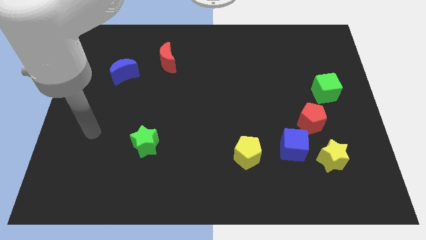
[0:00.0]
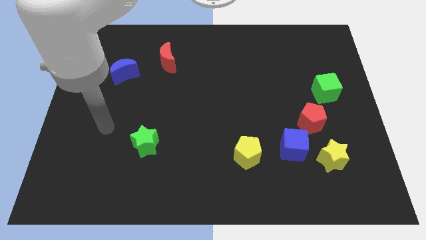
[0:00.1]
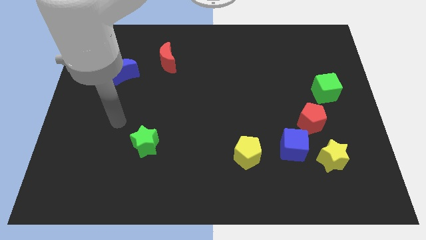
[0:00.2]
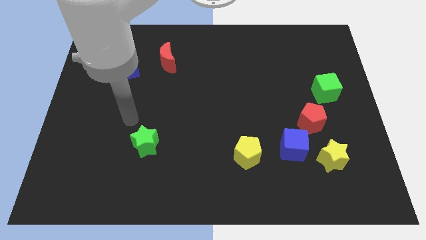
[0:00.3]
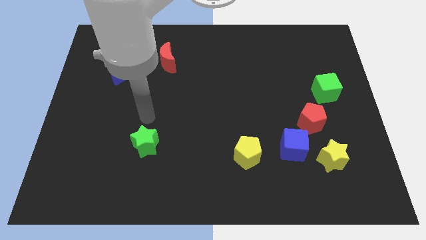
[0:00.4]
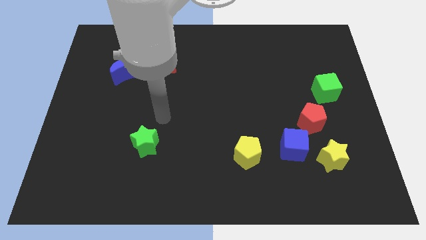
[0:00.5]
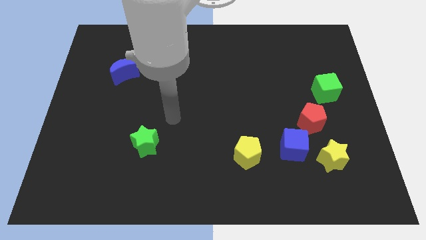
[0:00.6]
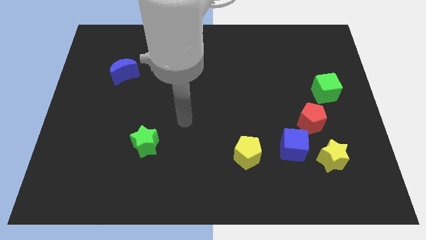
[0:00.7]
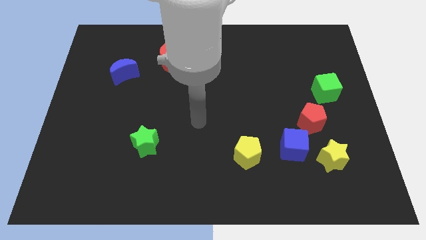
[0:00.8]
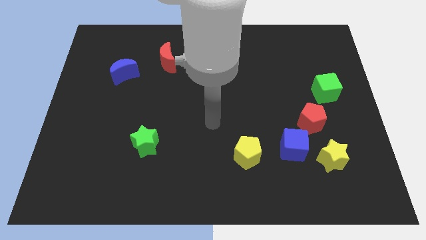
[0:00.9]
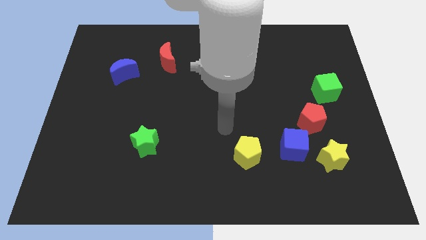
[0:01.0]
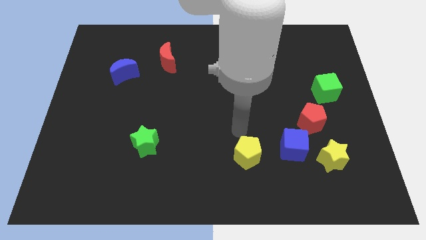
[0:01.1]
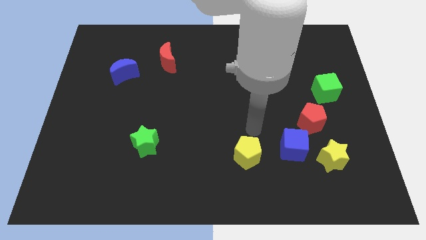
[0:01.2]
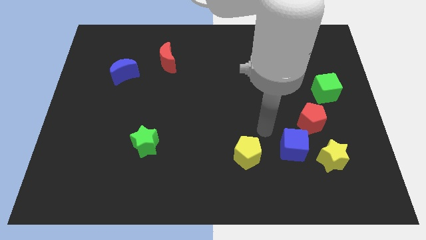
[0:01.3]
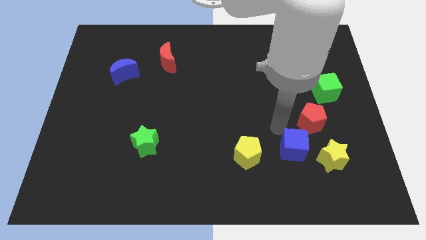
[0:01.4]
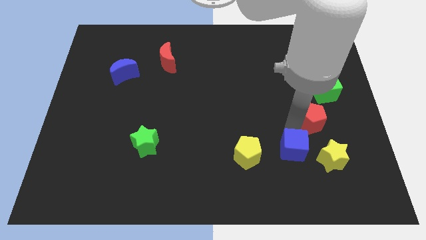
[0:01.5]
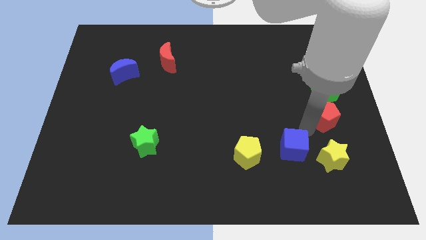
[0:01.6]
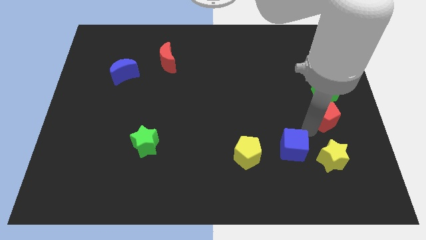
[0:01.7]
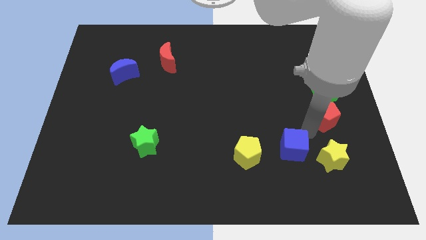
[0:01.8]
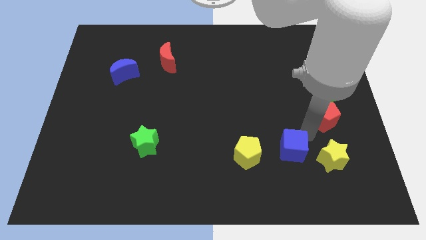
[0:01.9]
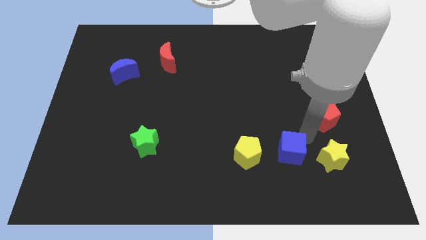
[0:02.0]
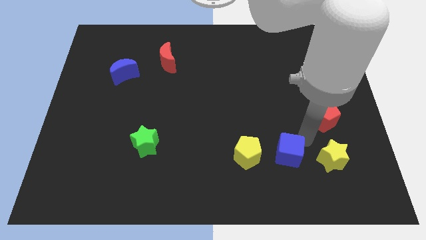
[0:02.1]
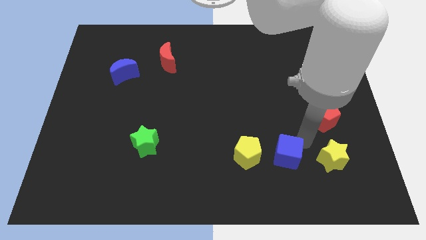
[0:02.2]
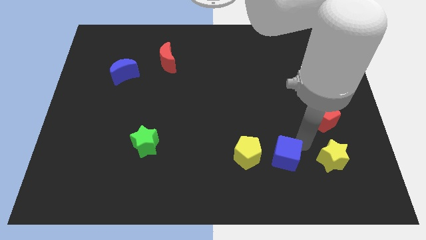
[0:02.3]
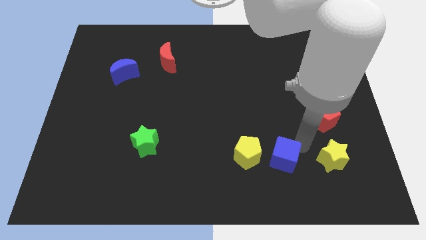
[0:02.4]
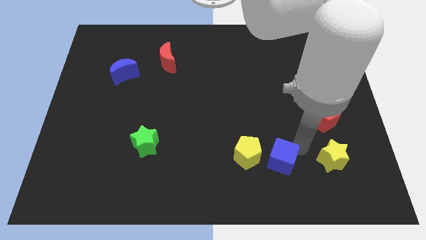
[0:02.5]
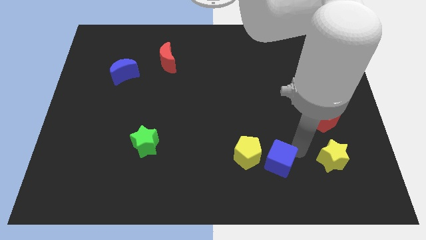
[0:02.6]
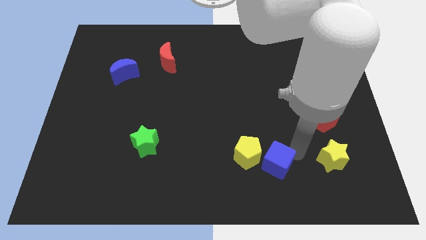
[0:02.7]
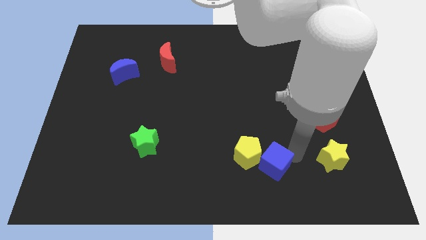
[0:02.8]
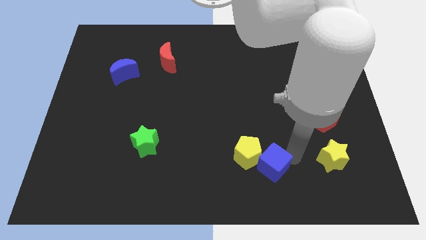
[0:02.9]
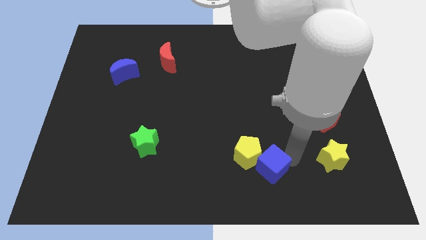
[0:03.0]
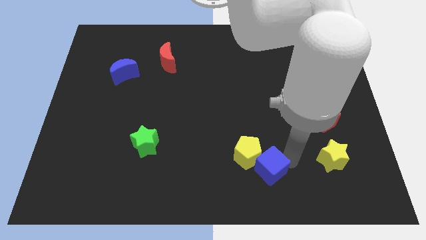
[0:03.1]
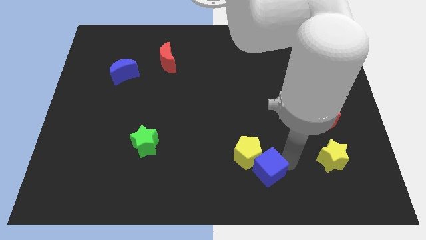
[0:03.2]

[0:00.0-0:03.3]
separate the blue cube from the yellow star, red pentagon, and yellow pentagon

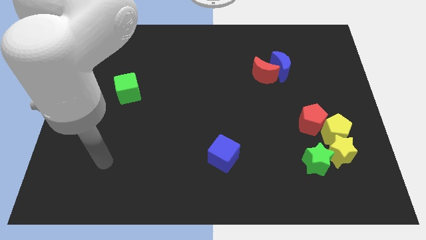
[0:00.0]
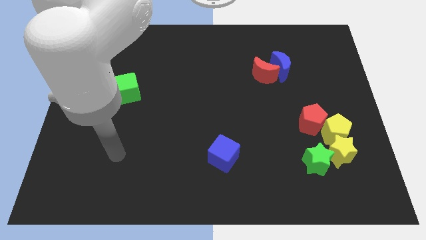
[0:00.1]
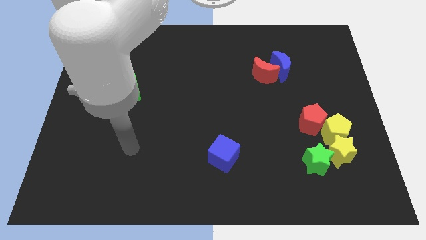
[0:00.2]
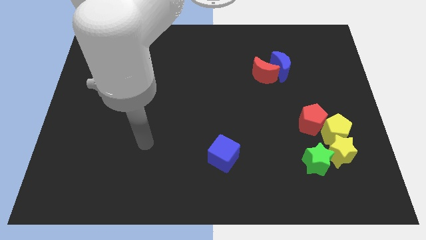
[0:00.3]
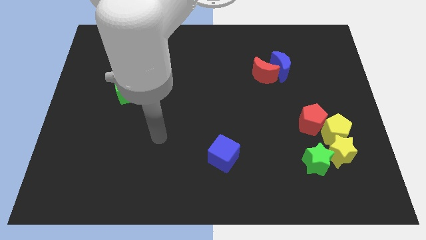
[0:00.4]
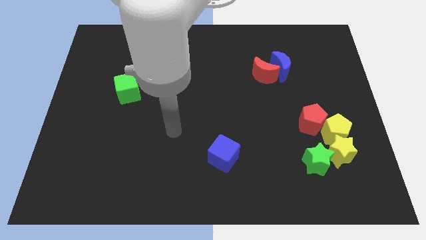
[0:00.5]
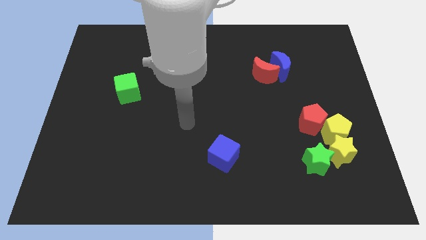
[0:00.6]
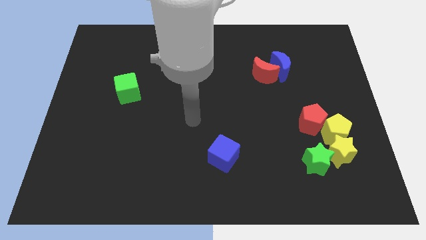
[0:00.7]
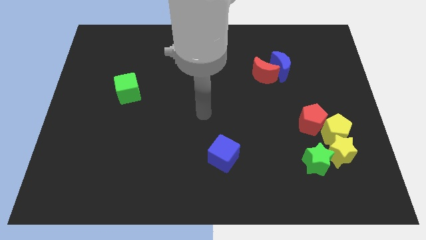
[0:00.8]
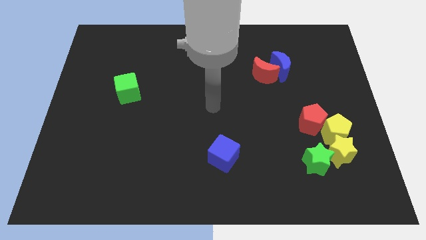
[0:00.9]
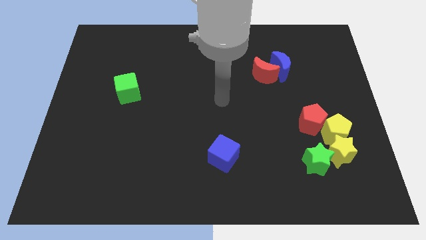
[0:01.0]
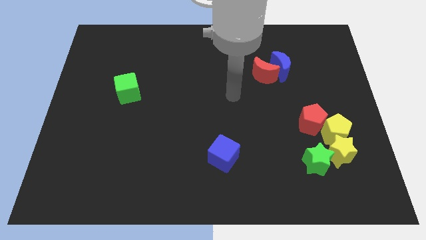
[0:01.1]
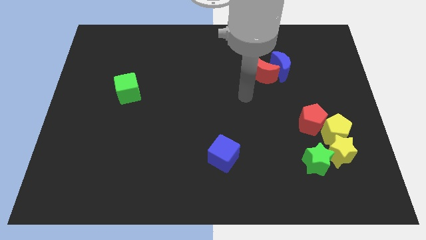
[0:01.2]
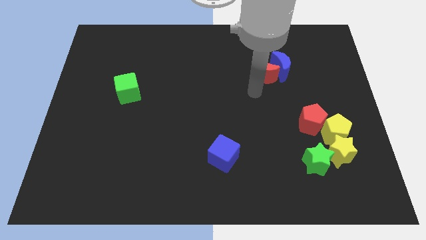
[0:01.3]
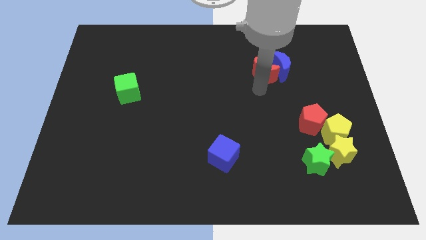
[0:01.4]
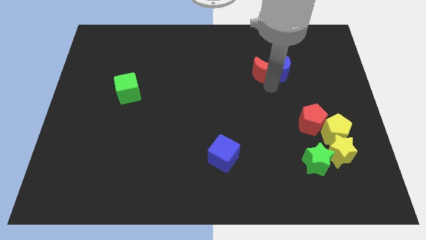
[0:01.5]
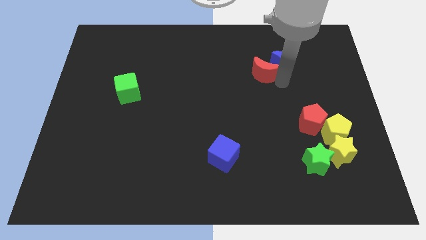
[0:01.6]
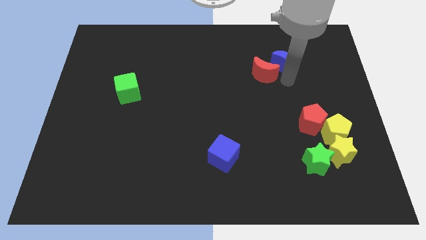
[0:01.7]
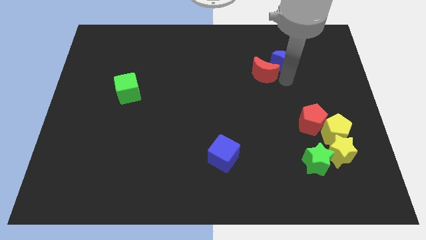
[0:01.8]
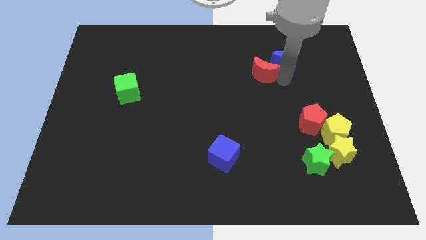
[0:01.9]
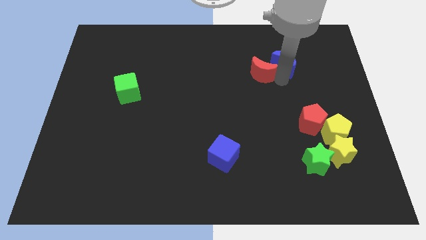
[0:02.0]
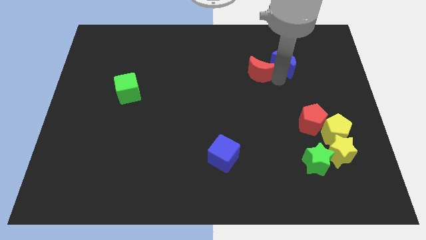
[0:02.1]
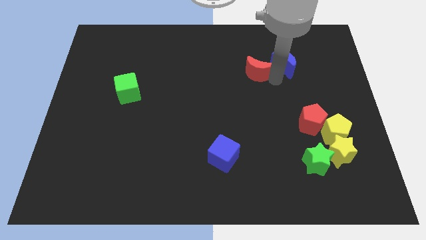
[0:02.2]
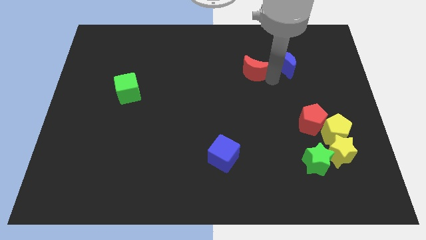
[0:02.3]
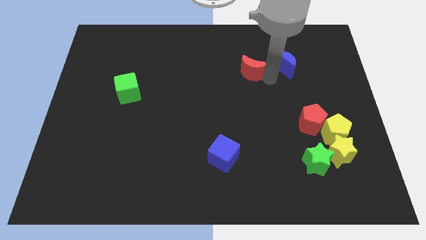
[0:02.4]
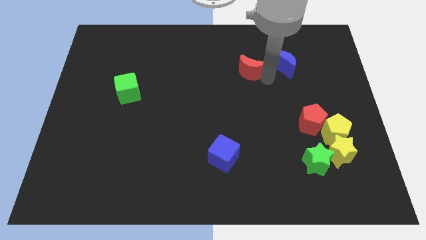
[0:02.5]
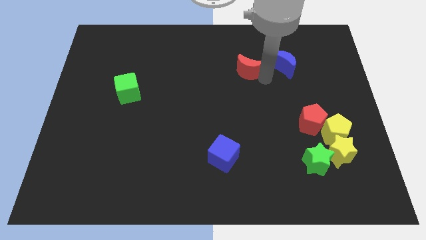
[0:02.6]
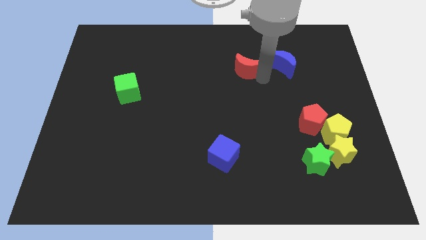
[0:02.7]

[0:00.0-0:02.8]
separate the red moon from the blue moon

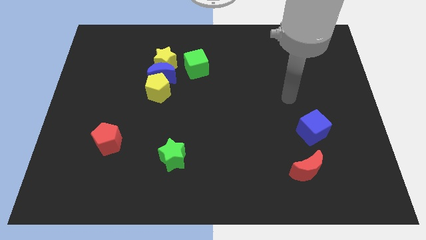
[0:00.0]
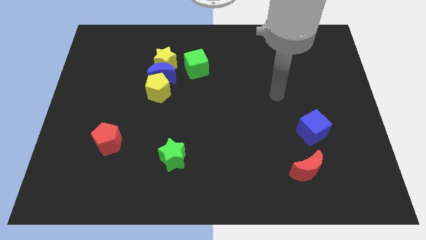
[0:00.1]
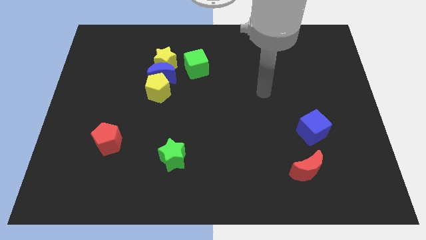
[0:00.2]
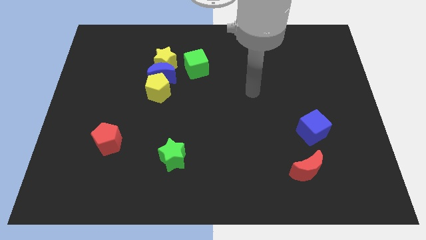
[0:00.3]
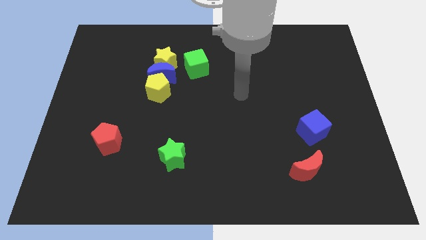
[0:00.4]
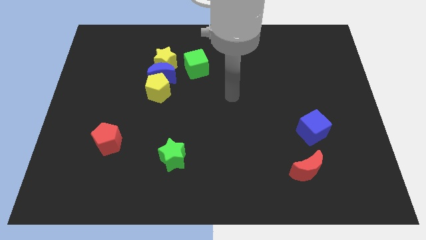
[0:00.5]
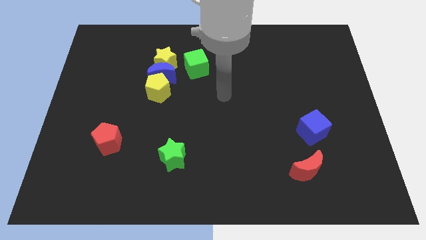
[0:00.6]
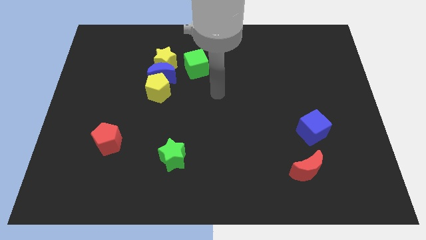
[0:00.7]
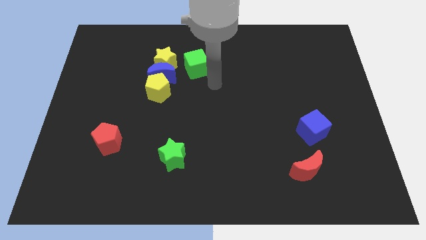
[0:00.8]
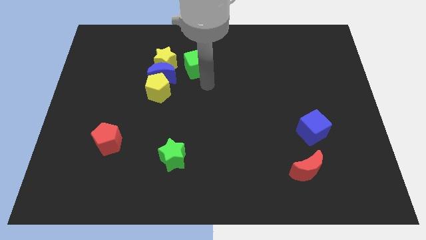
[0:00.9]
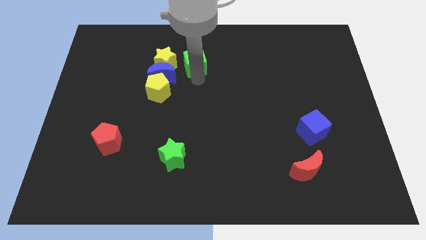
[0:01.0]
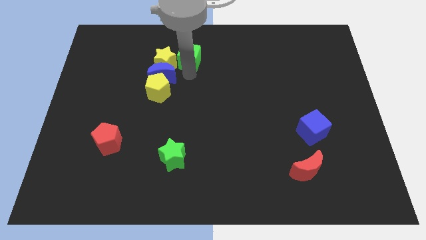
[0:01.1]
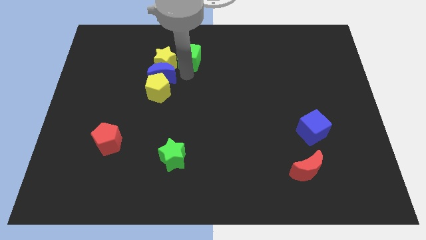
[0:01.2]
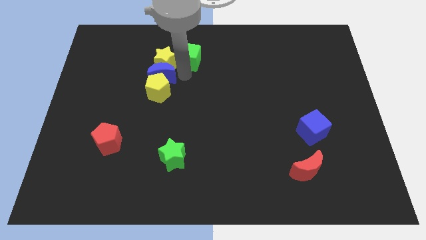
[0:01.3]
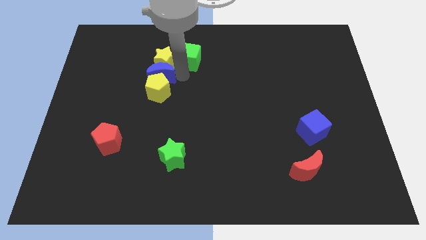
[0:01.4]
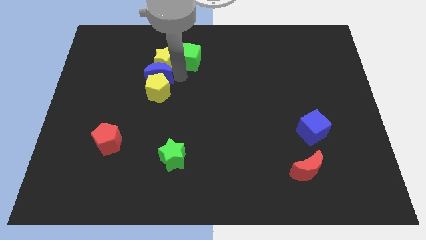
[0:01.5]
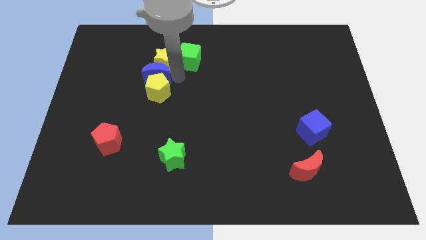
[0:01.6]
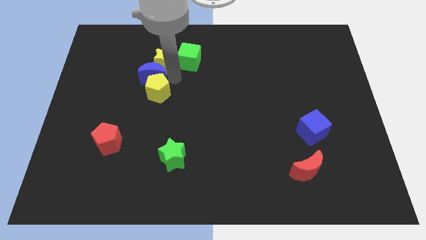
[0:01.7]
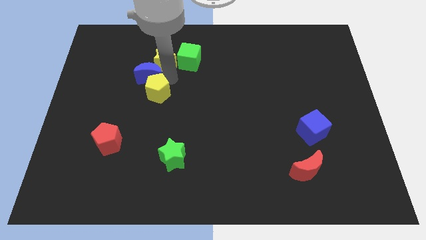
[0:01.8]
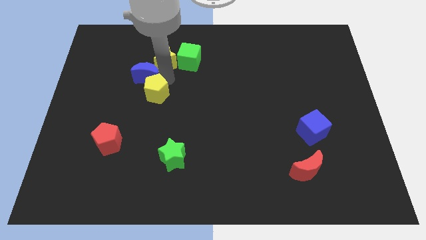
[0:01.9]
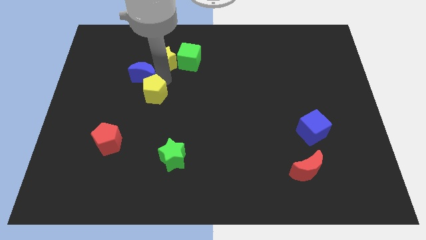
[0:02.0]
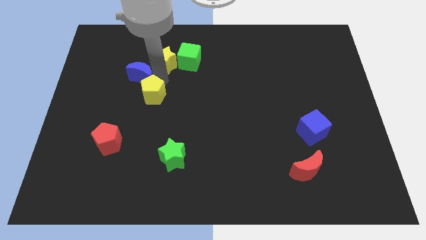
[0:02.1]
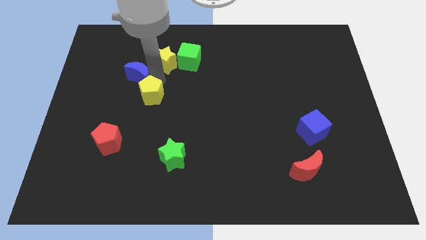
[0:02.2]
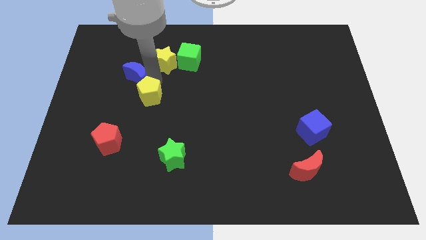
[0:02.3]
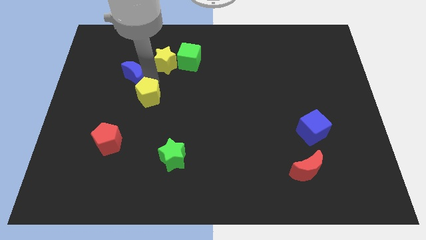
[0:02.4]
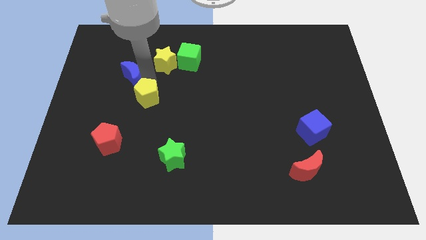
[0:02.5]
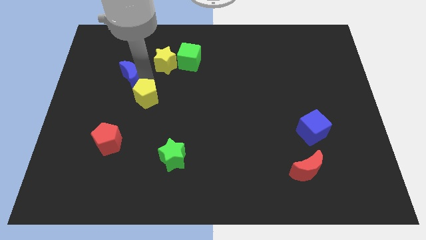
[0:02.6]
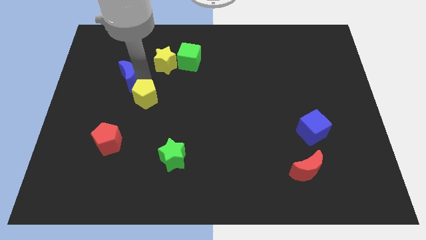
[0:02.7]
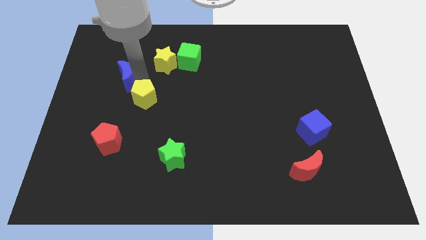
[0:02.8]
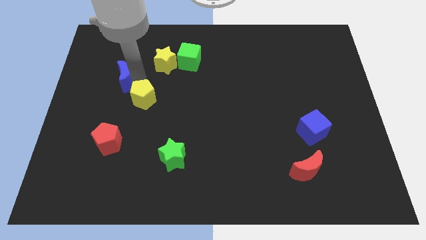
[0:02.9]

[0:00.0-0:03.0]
separate the blue moon from the clump

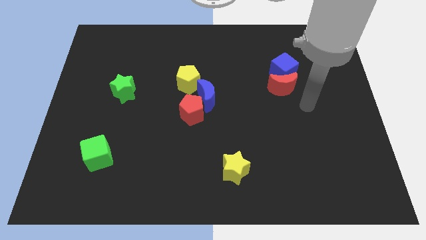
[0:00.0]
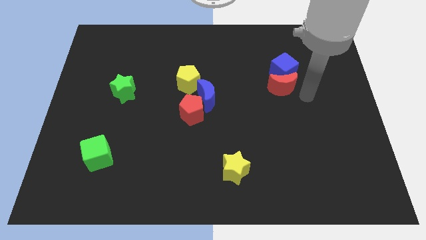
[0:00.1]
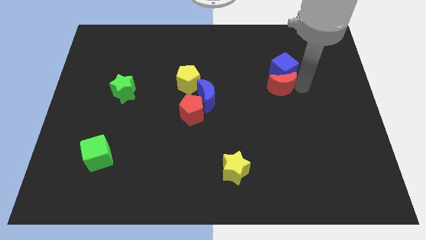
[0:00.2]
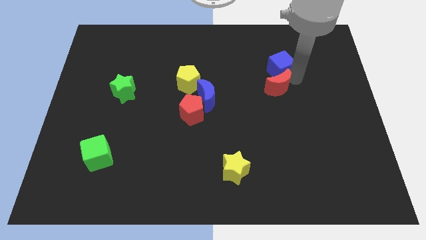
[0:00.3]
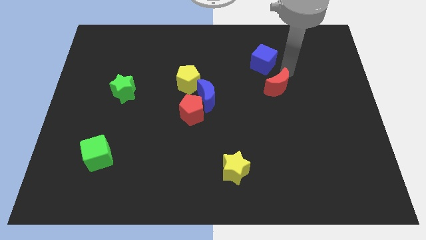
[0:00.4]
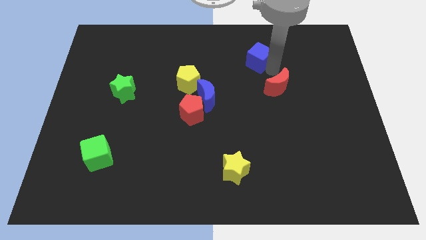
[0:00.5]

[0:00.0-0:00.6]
separate the red moon from the blue cube
